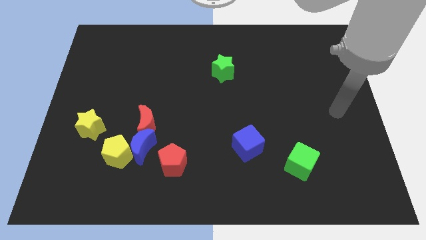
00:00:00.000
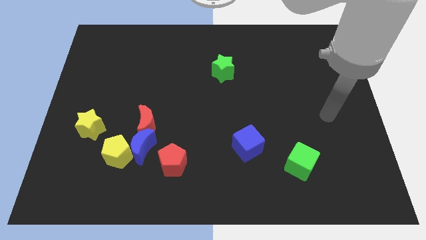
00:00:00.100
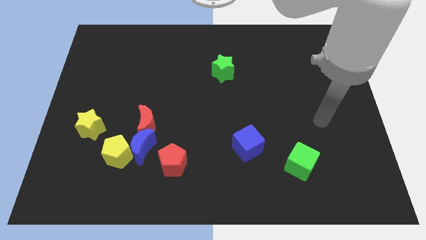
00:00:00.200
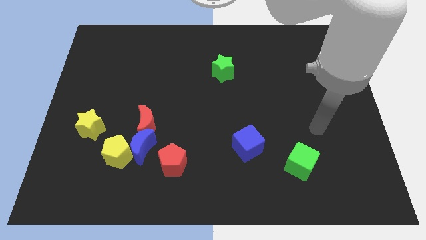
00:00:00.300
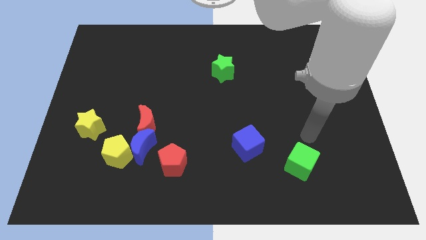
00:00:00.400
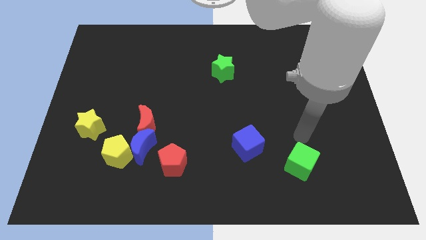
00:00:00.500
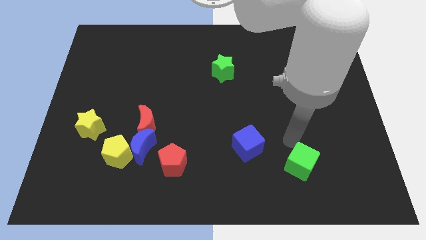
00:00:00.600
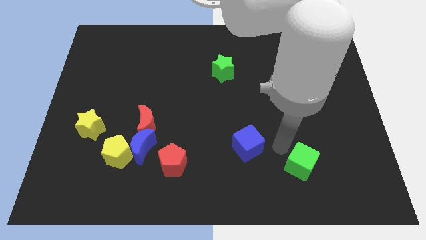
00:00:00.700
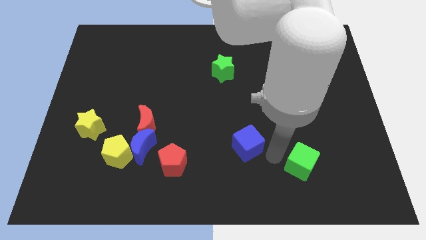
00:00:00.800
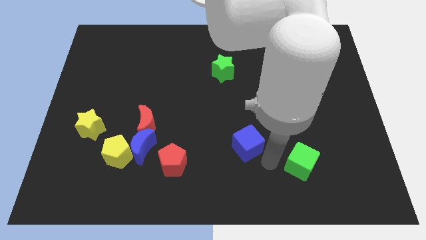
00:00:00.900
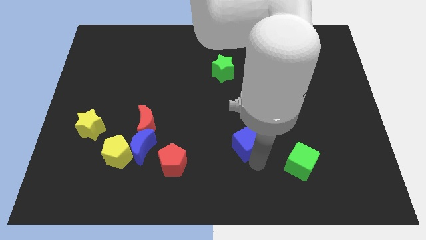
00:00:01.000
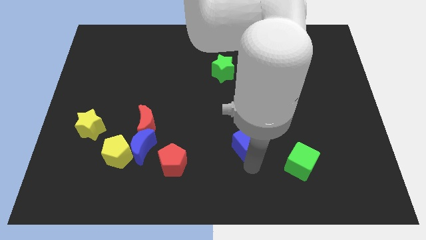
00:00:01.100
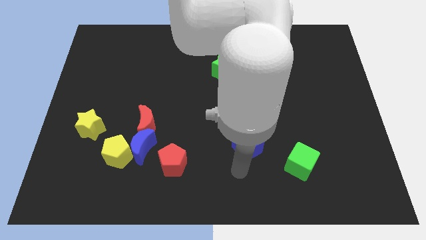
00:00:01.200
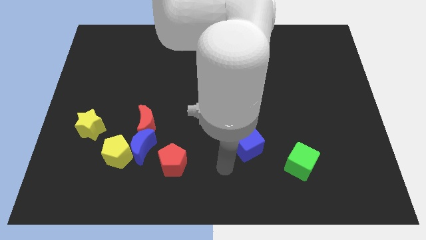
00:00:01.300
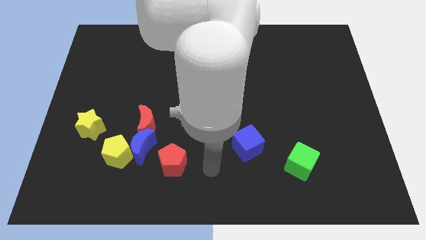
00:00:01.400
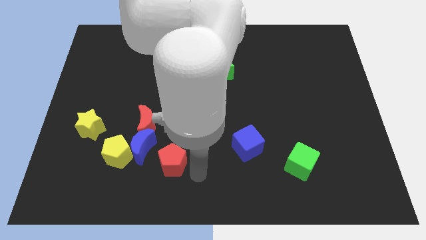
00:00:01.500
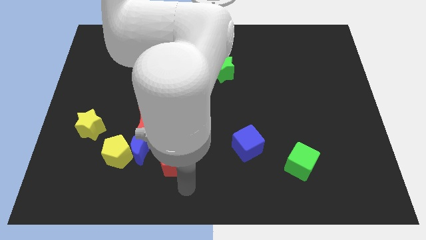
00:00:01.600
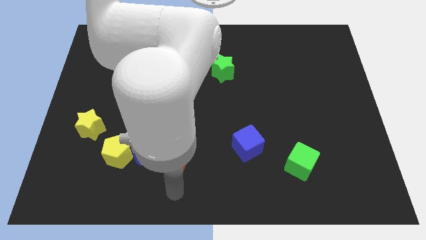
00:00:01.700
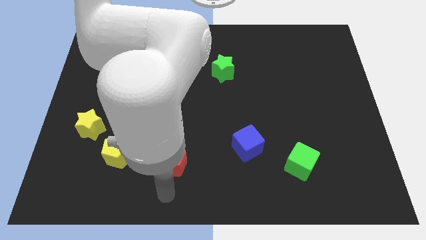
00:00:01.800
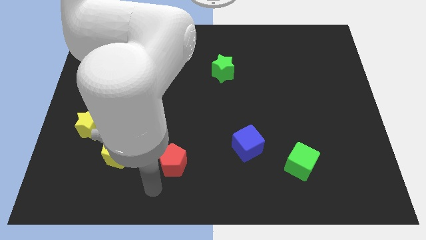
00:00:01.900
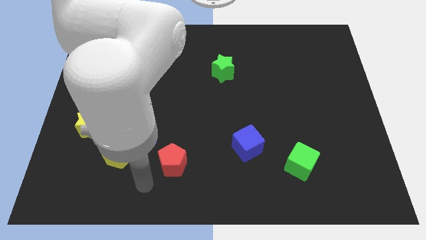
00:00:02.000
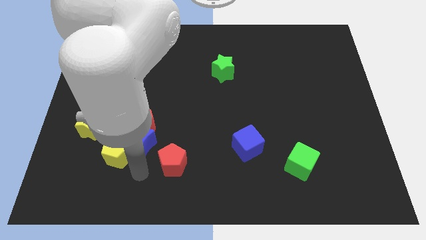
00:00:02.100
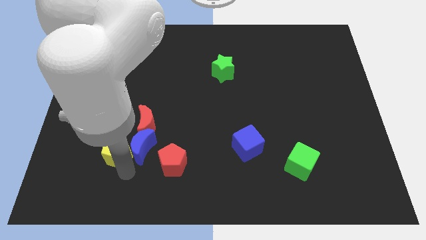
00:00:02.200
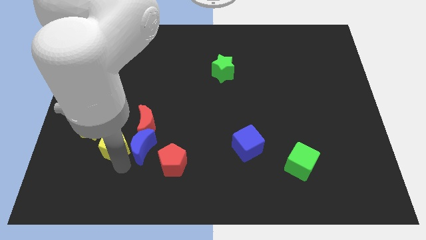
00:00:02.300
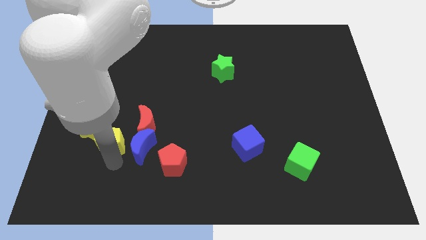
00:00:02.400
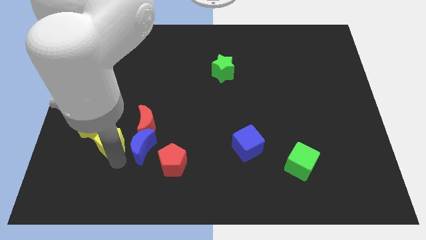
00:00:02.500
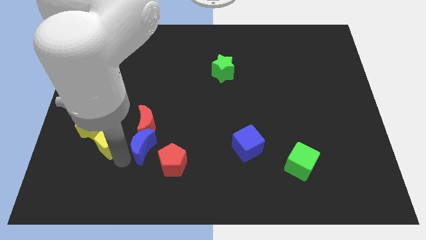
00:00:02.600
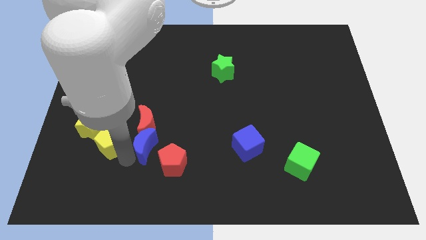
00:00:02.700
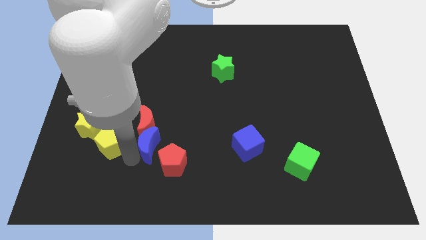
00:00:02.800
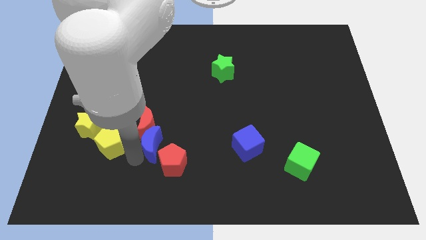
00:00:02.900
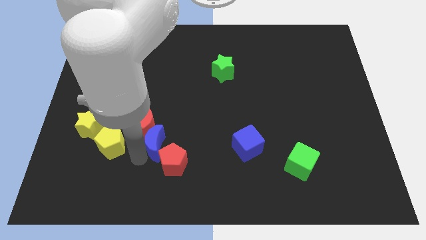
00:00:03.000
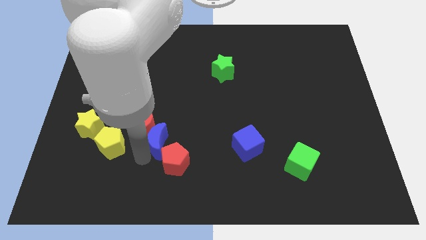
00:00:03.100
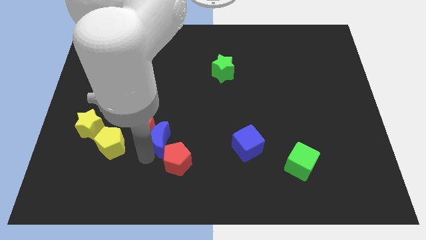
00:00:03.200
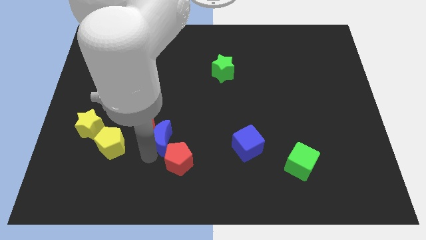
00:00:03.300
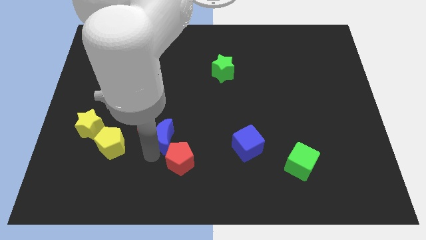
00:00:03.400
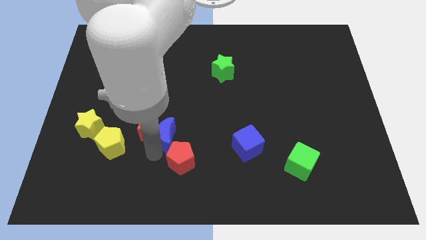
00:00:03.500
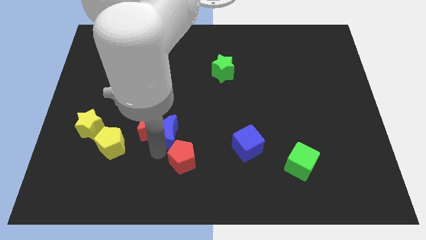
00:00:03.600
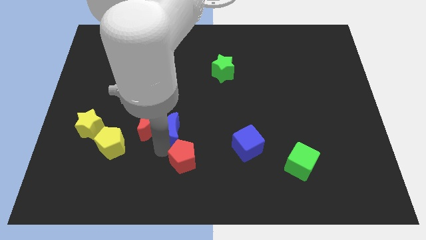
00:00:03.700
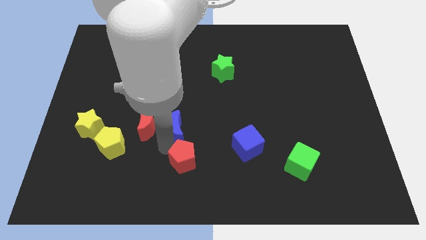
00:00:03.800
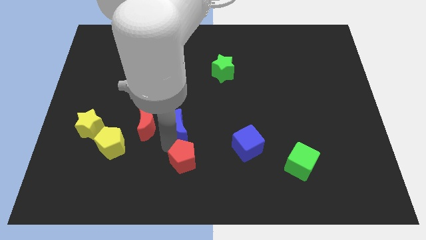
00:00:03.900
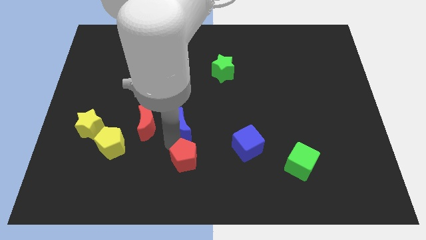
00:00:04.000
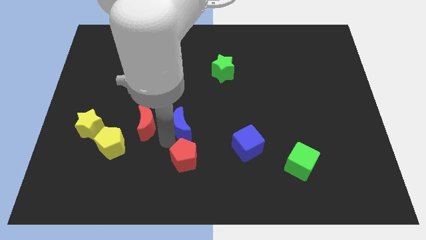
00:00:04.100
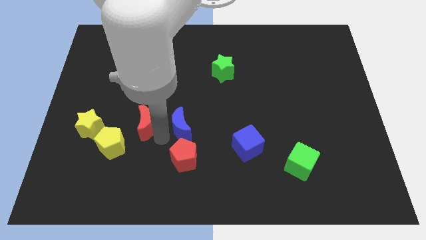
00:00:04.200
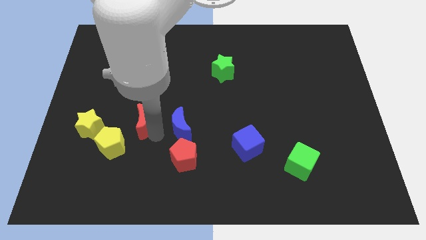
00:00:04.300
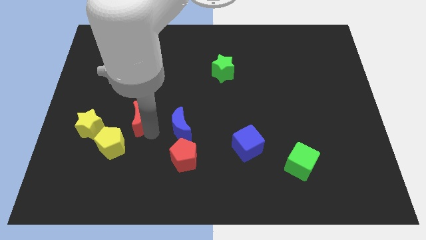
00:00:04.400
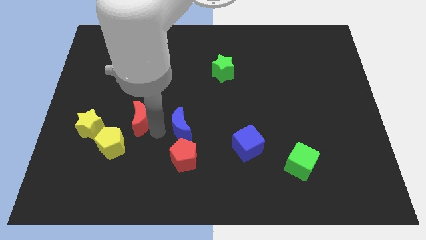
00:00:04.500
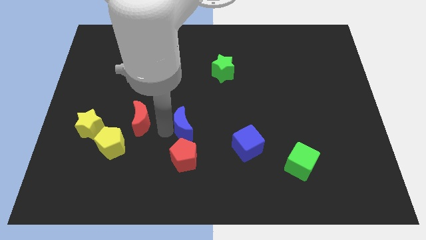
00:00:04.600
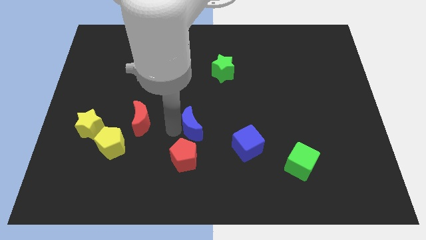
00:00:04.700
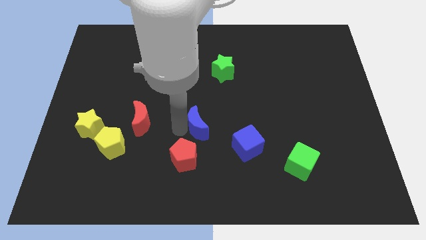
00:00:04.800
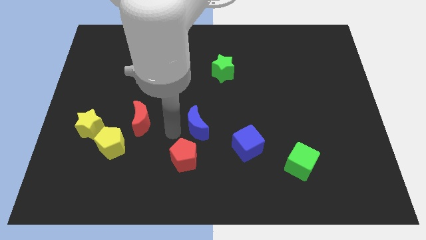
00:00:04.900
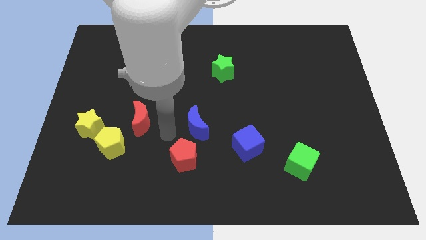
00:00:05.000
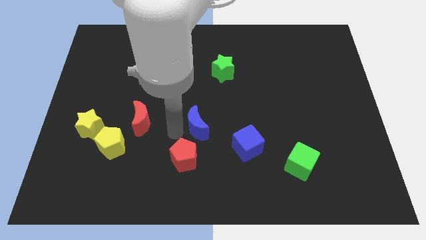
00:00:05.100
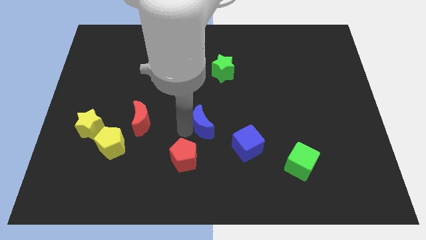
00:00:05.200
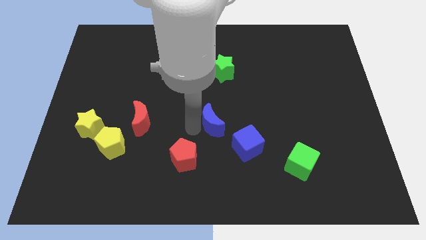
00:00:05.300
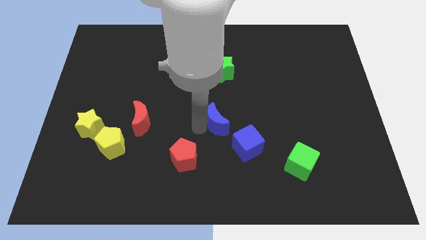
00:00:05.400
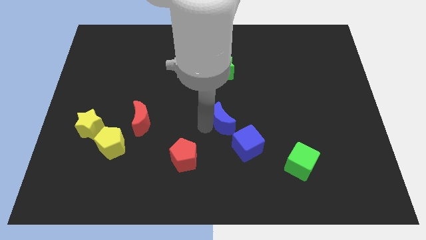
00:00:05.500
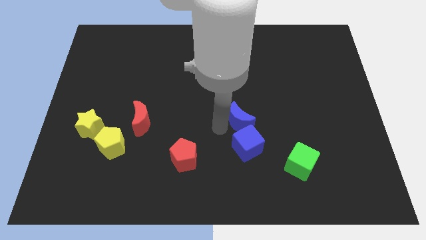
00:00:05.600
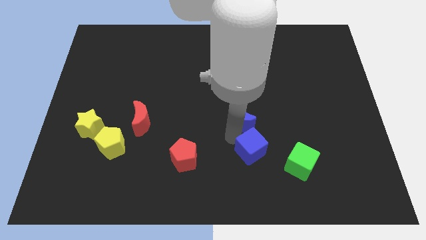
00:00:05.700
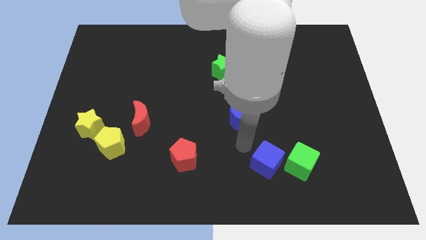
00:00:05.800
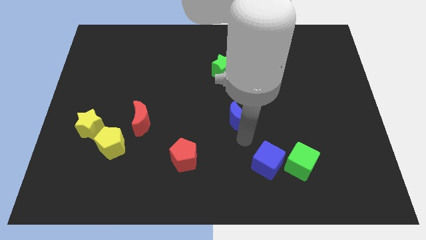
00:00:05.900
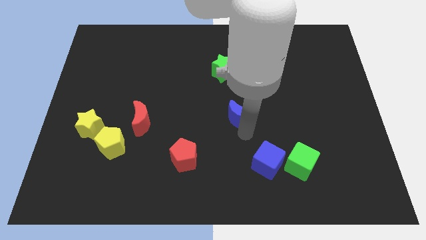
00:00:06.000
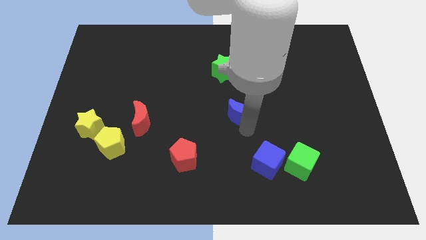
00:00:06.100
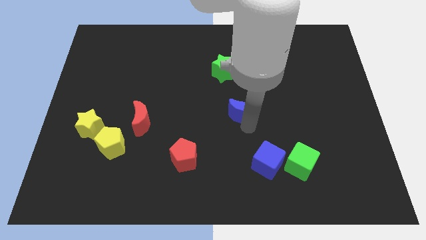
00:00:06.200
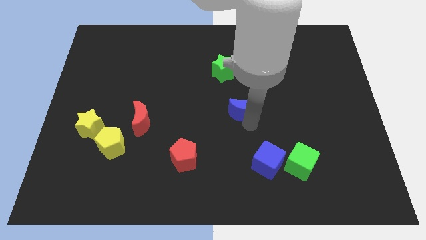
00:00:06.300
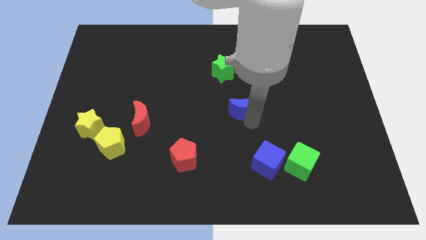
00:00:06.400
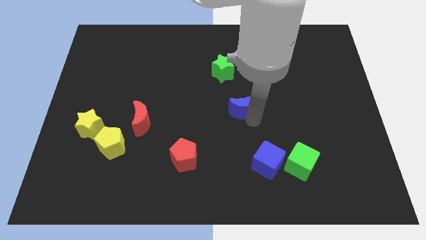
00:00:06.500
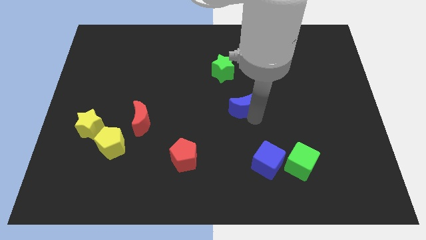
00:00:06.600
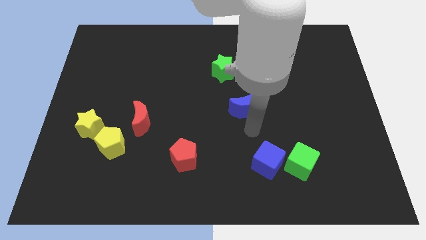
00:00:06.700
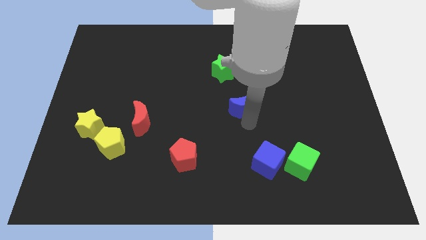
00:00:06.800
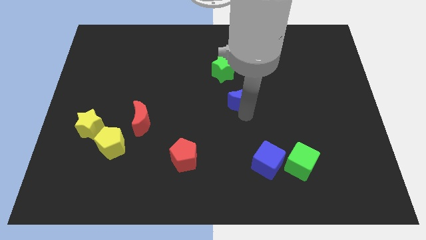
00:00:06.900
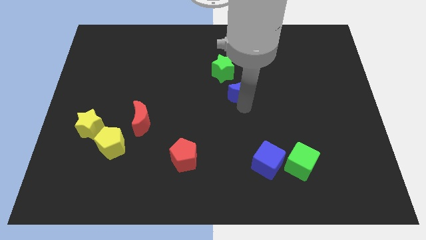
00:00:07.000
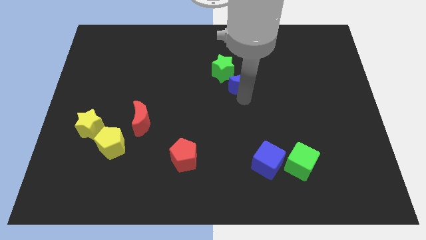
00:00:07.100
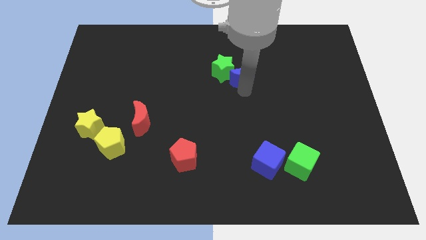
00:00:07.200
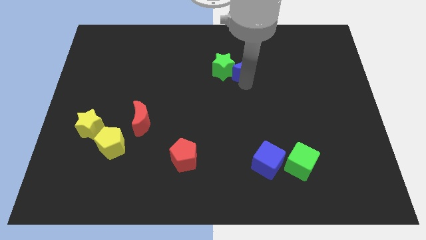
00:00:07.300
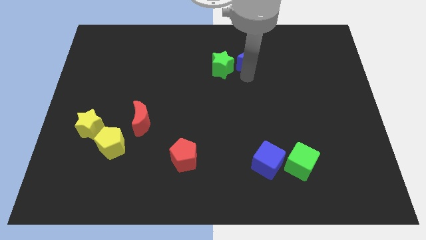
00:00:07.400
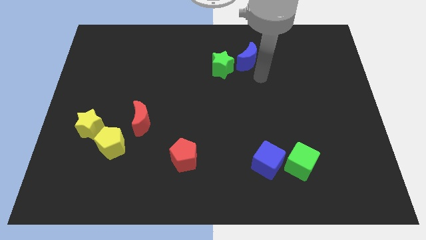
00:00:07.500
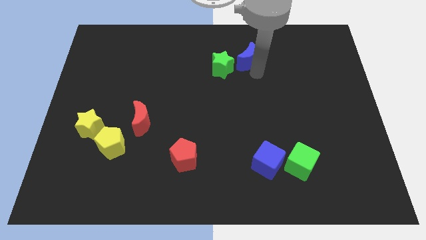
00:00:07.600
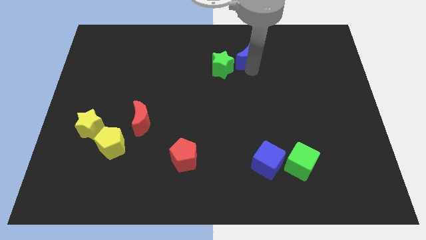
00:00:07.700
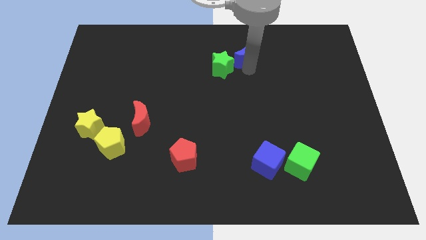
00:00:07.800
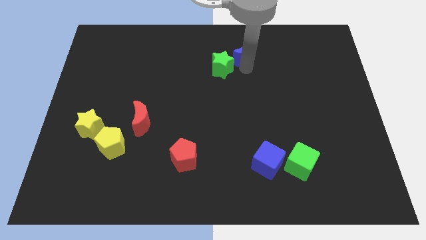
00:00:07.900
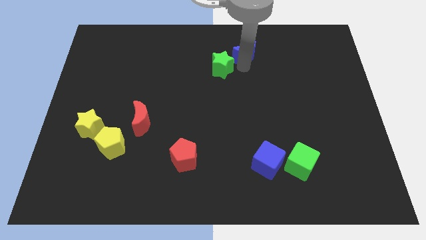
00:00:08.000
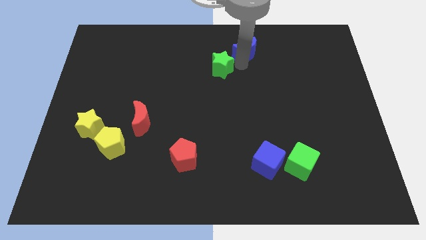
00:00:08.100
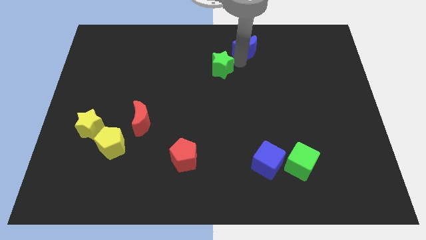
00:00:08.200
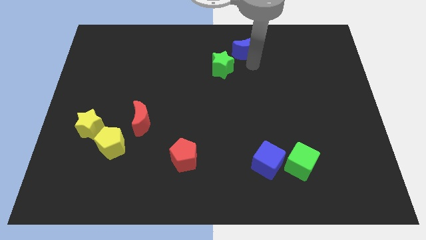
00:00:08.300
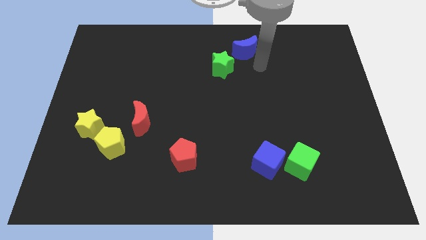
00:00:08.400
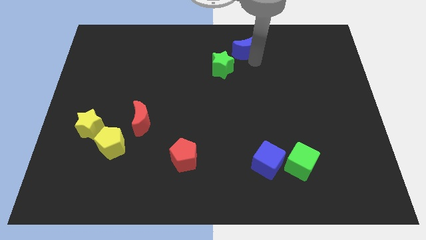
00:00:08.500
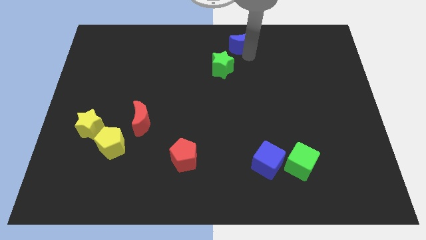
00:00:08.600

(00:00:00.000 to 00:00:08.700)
push the blue moon to the top
